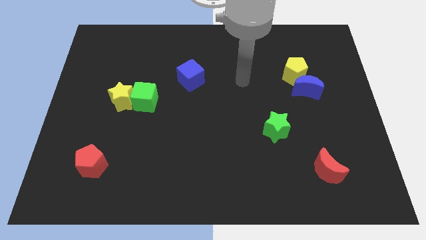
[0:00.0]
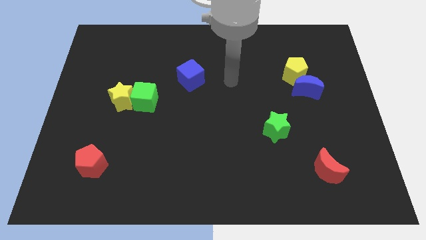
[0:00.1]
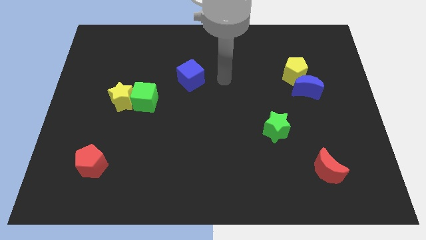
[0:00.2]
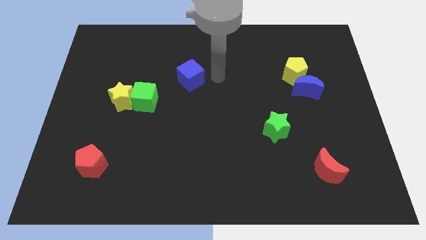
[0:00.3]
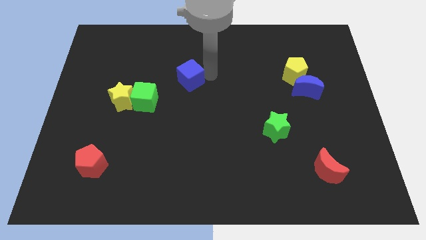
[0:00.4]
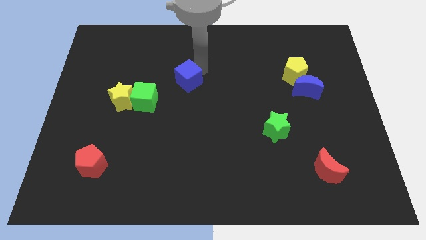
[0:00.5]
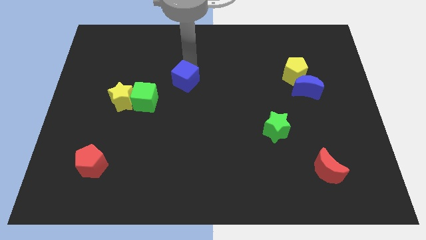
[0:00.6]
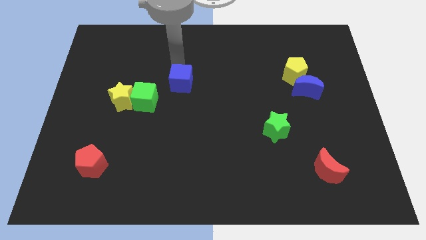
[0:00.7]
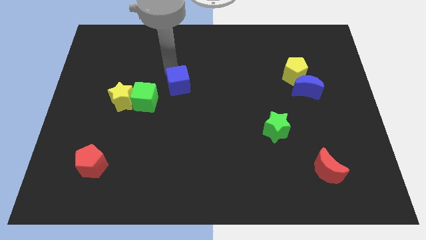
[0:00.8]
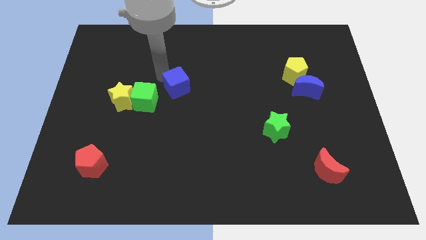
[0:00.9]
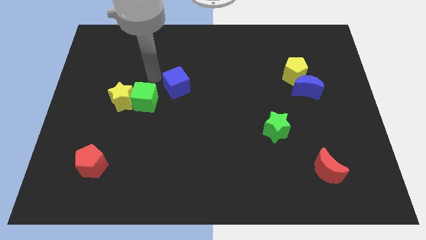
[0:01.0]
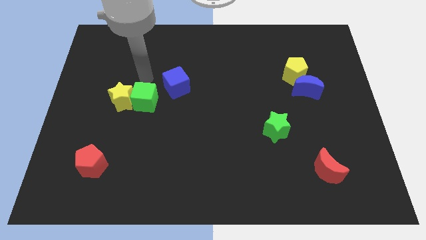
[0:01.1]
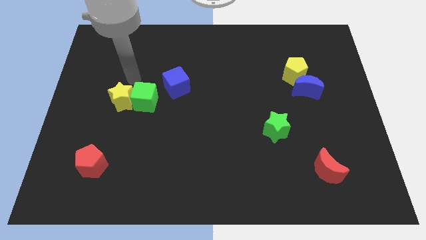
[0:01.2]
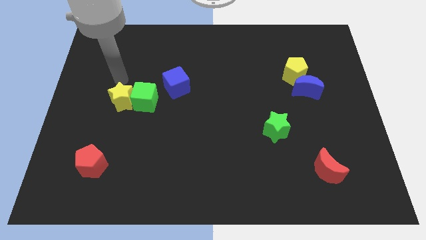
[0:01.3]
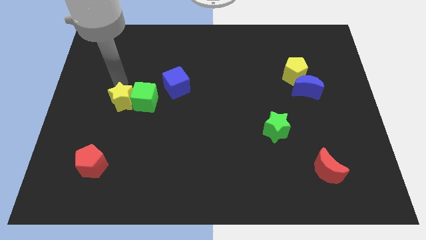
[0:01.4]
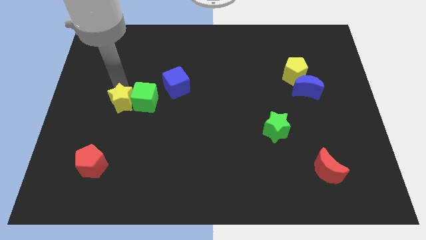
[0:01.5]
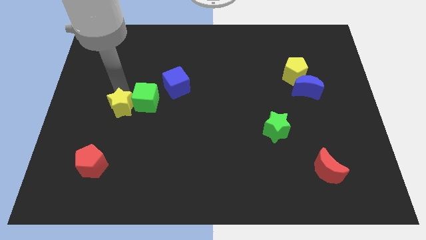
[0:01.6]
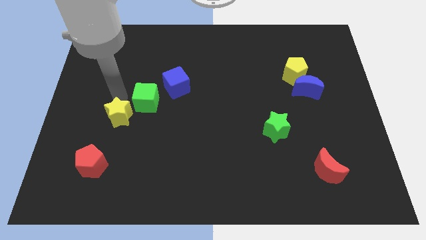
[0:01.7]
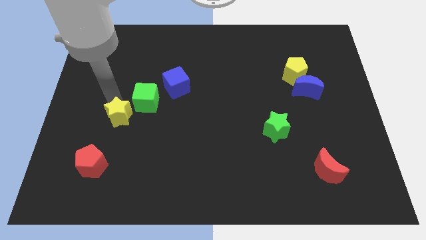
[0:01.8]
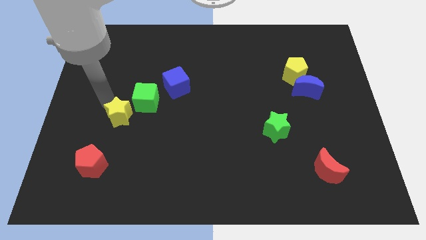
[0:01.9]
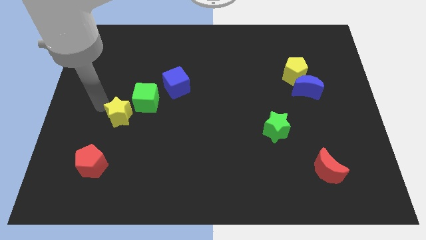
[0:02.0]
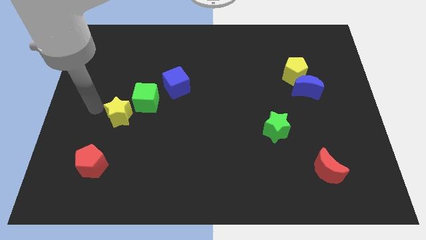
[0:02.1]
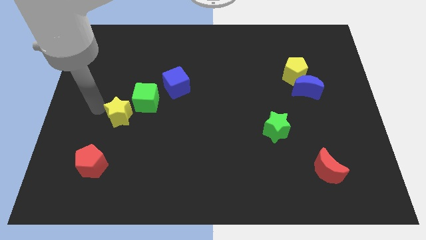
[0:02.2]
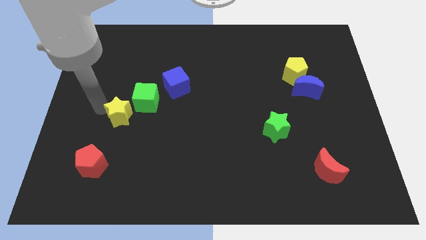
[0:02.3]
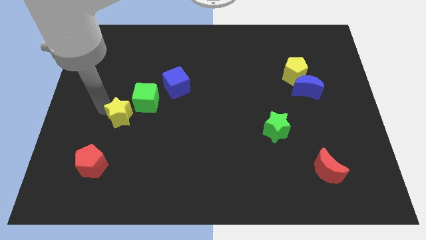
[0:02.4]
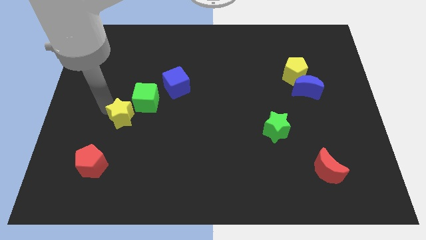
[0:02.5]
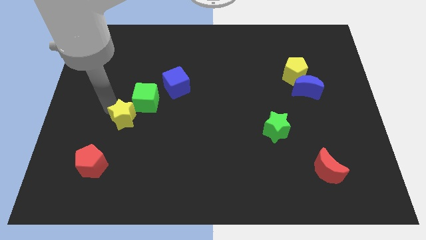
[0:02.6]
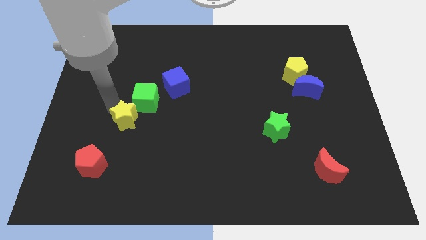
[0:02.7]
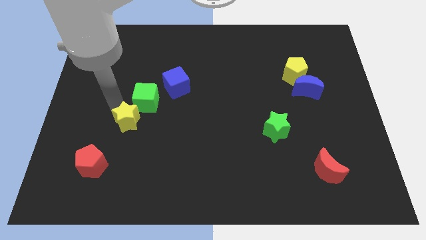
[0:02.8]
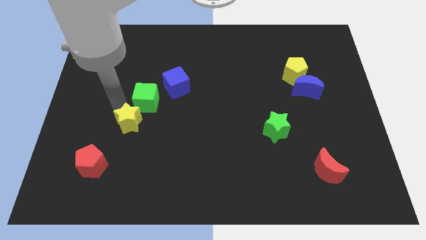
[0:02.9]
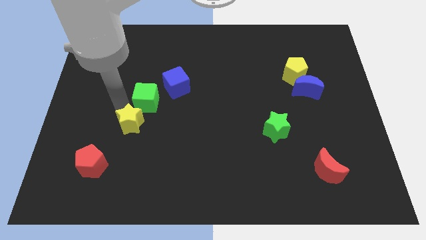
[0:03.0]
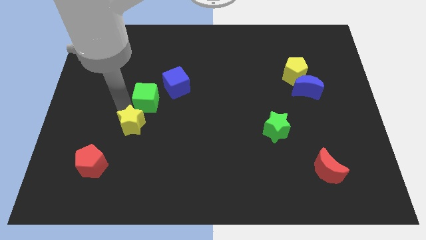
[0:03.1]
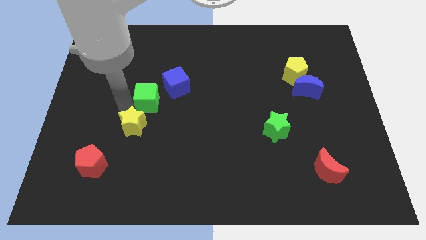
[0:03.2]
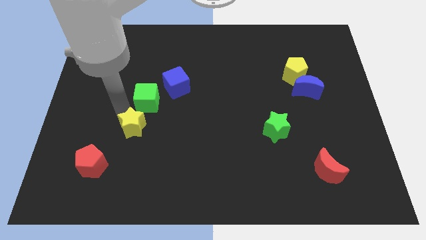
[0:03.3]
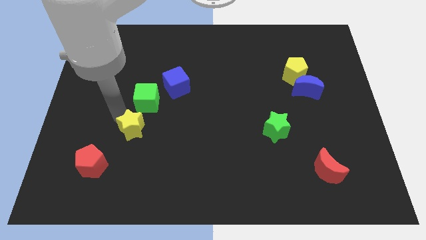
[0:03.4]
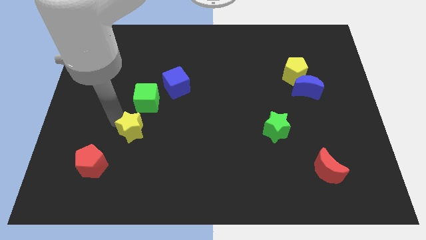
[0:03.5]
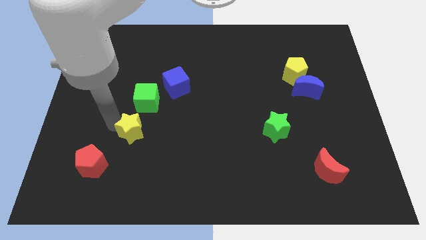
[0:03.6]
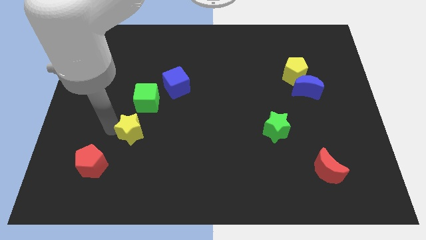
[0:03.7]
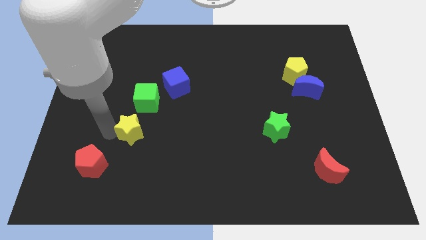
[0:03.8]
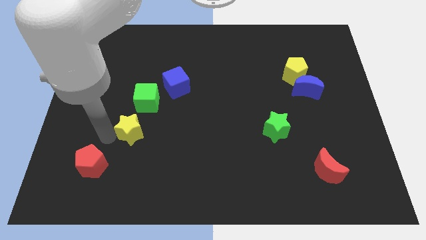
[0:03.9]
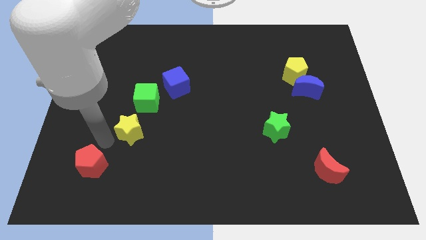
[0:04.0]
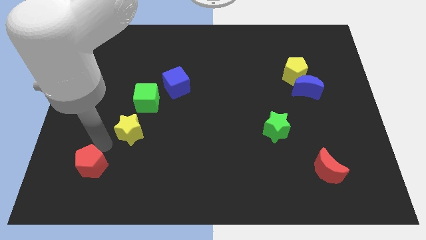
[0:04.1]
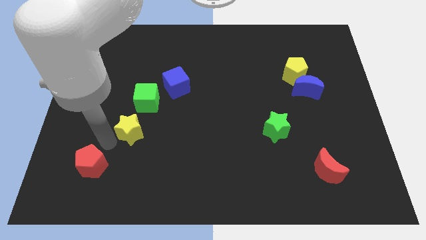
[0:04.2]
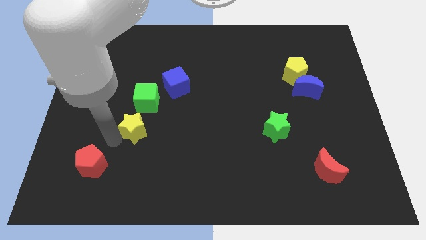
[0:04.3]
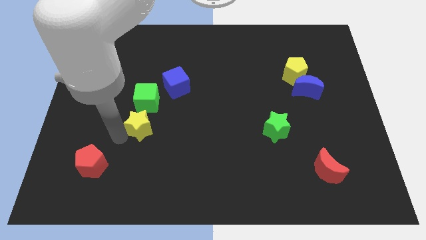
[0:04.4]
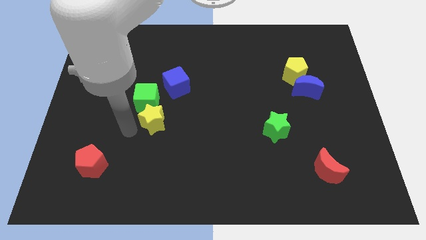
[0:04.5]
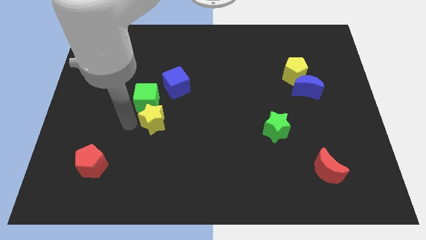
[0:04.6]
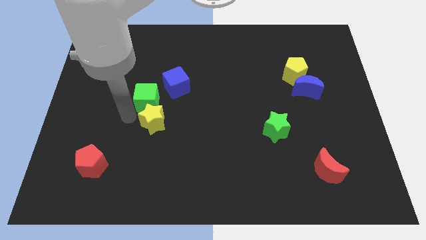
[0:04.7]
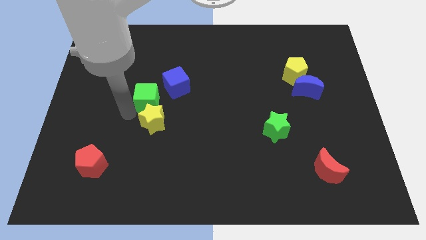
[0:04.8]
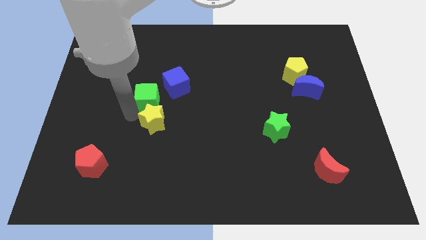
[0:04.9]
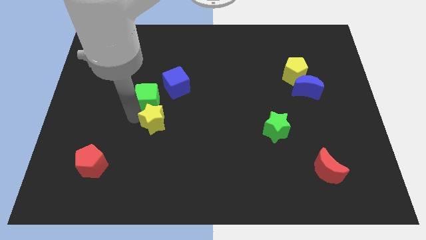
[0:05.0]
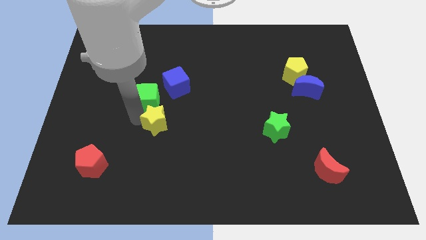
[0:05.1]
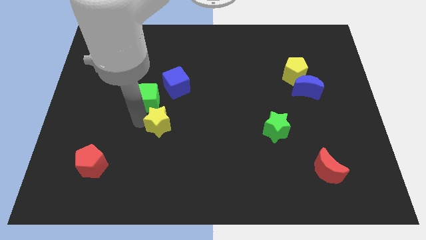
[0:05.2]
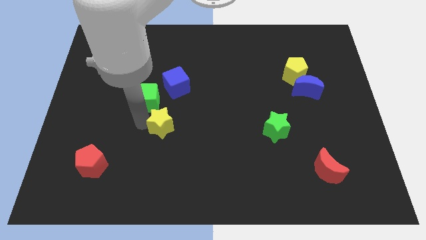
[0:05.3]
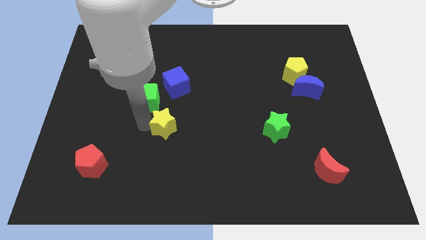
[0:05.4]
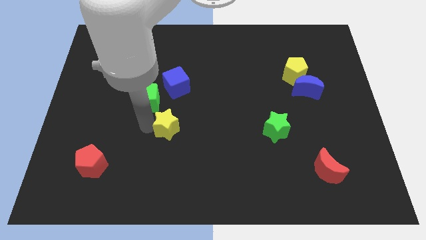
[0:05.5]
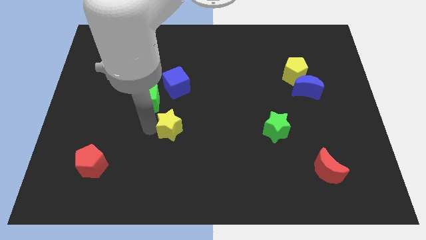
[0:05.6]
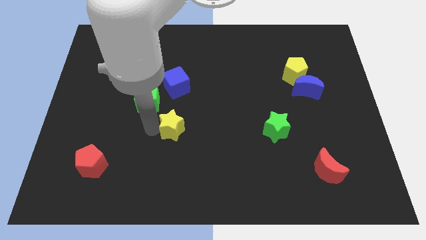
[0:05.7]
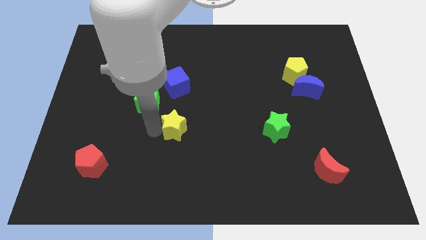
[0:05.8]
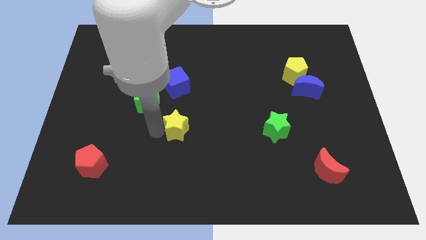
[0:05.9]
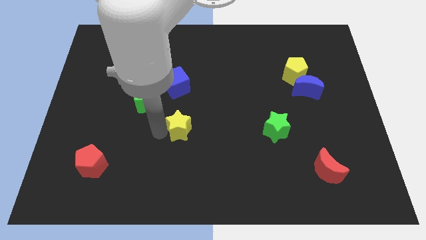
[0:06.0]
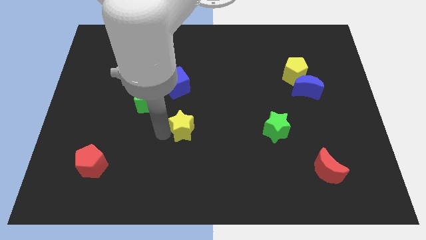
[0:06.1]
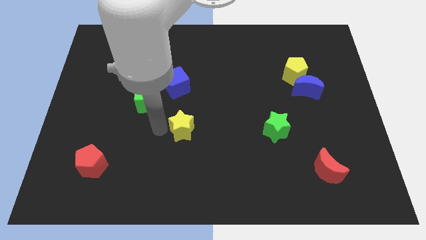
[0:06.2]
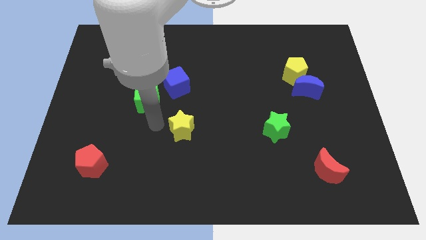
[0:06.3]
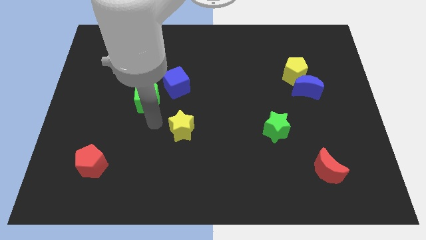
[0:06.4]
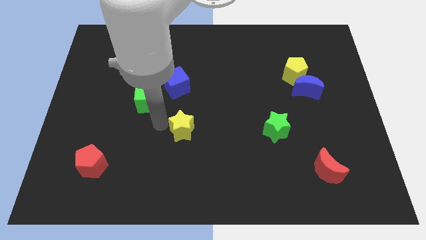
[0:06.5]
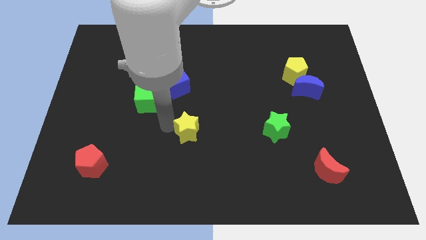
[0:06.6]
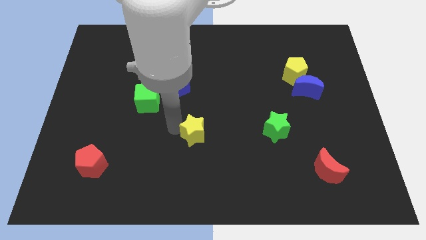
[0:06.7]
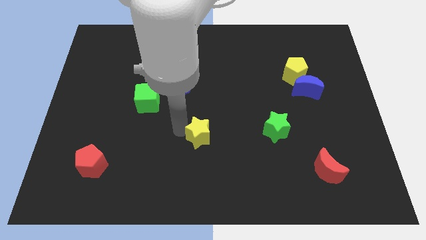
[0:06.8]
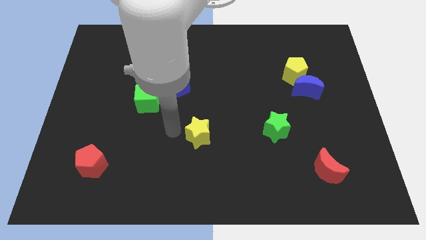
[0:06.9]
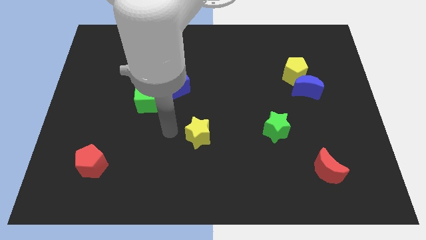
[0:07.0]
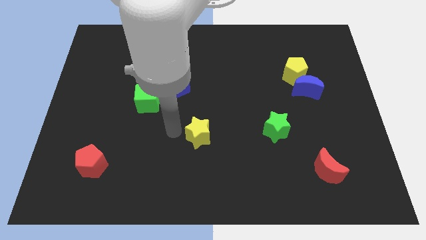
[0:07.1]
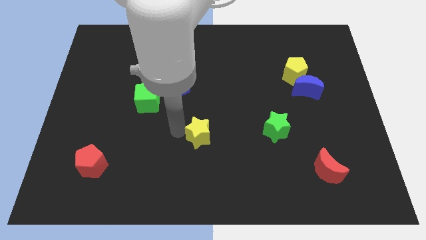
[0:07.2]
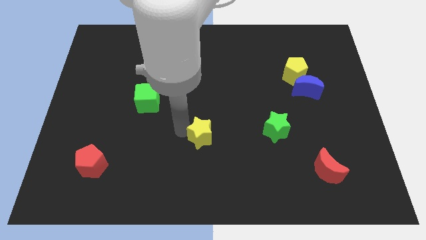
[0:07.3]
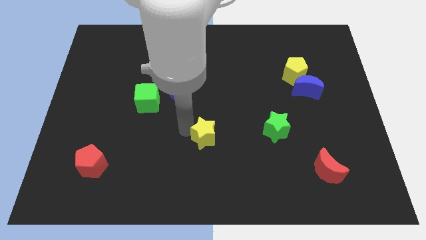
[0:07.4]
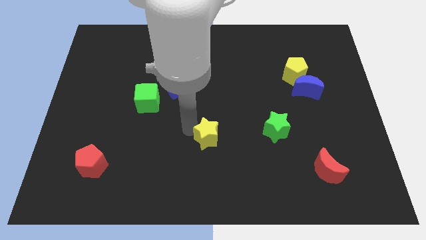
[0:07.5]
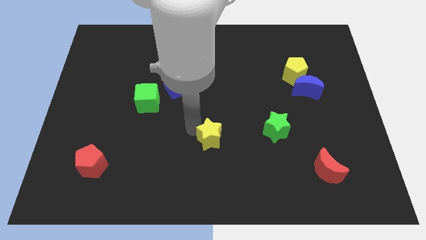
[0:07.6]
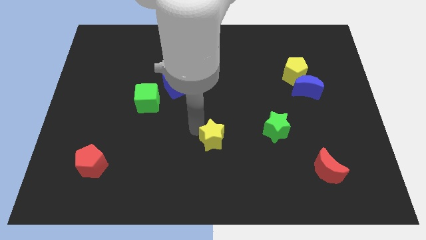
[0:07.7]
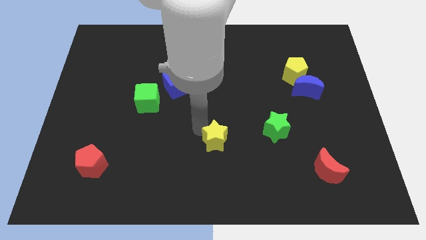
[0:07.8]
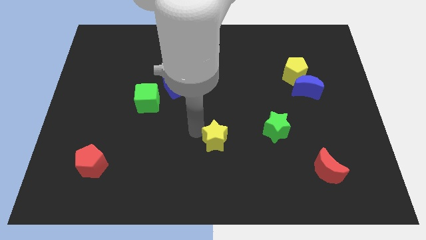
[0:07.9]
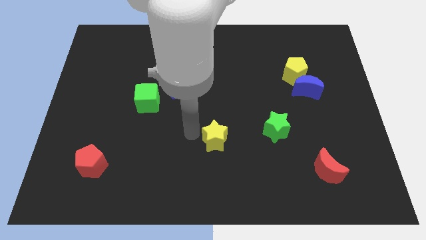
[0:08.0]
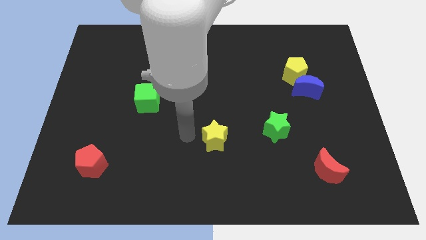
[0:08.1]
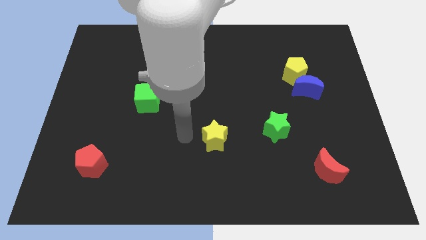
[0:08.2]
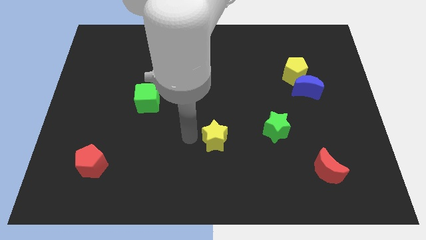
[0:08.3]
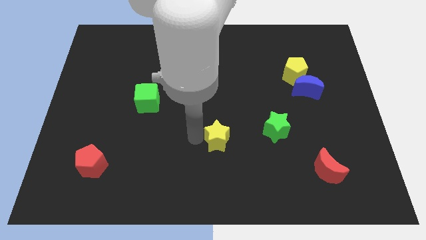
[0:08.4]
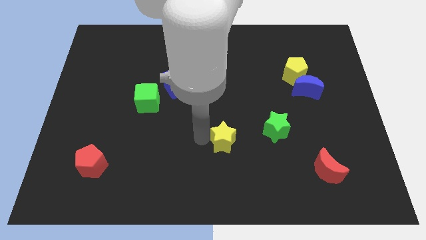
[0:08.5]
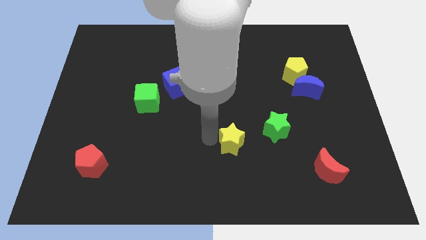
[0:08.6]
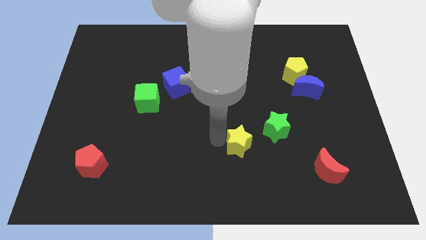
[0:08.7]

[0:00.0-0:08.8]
slide the yellow star to the bottom left side of the green star
